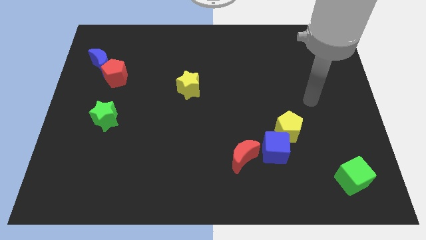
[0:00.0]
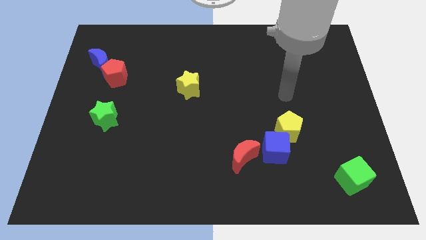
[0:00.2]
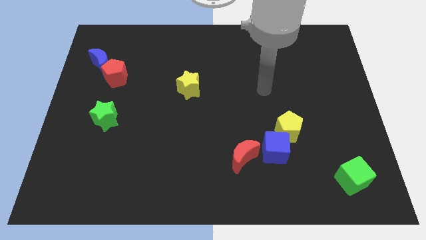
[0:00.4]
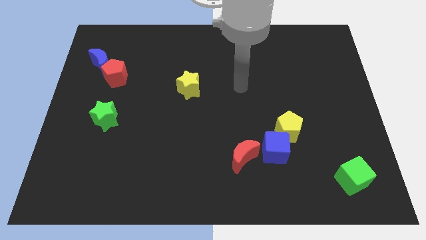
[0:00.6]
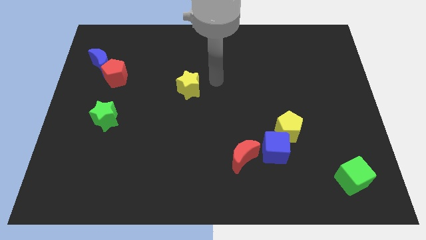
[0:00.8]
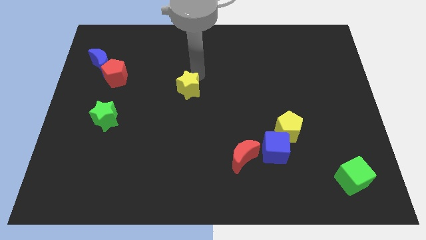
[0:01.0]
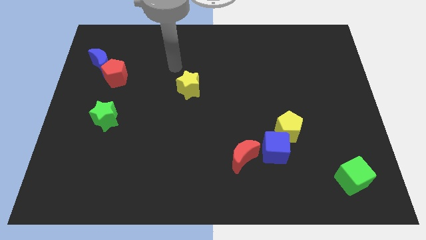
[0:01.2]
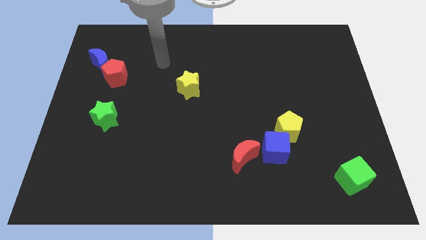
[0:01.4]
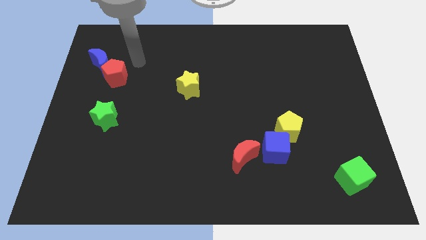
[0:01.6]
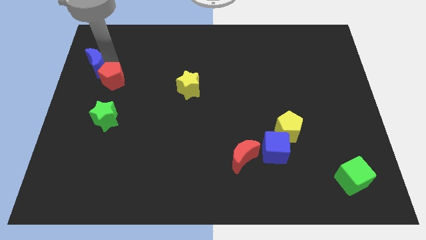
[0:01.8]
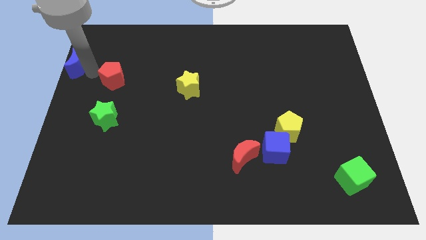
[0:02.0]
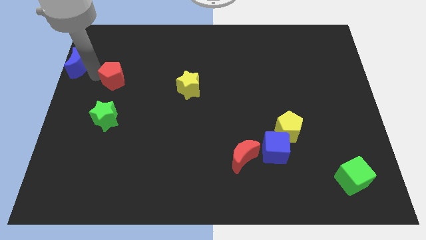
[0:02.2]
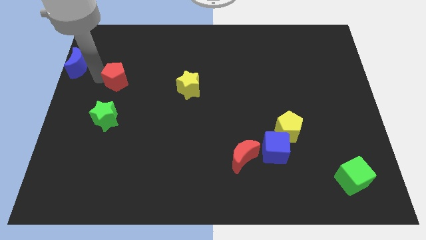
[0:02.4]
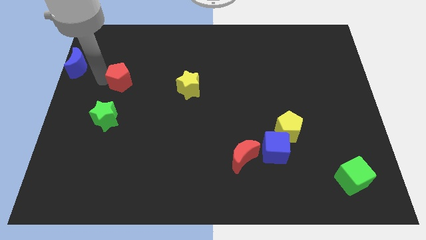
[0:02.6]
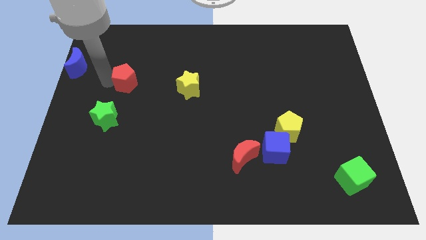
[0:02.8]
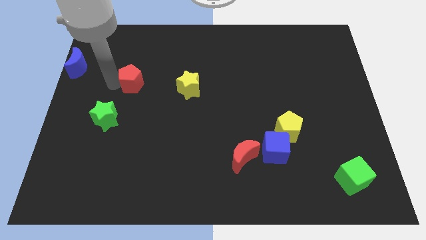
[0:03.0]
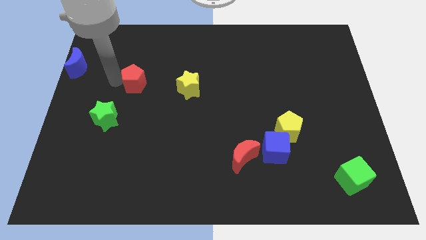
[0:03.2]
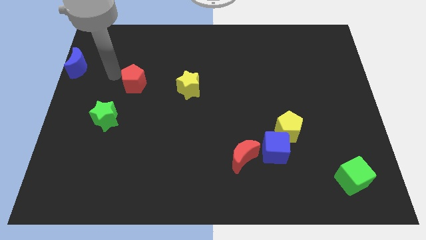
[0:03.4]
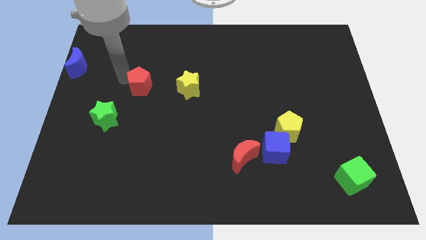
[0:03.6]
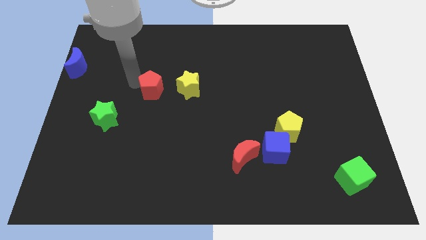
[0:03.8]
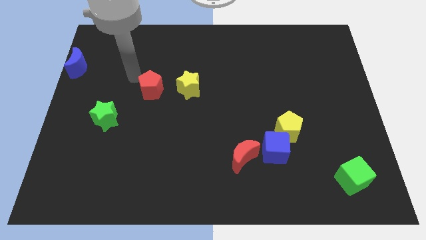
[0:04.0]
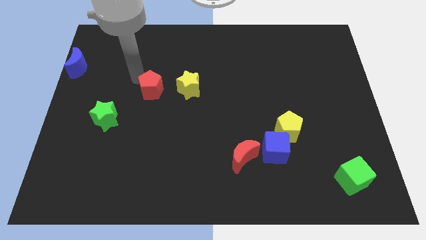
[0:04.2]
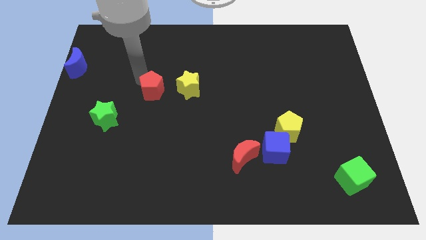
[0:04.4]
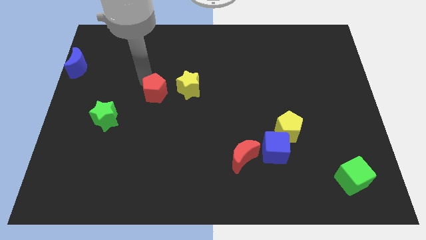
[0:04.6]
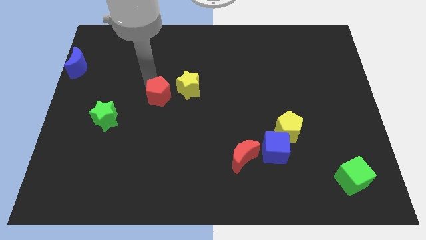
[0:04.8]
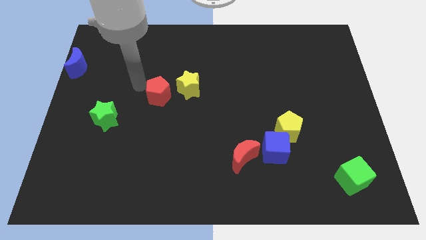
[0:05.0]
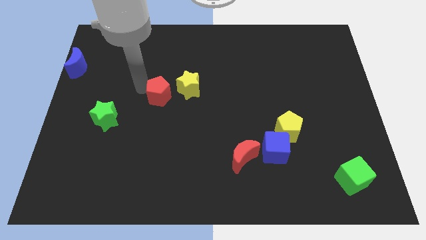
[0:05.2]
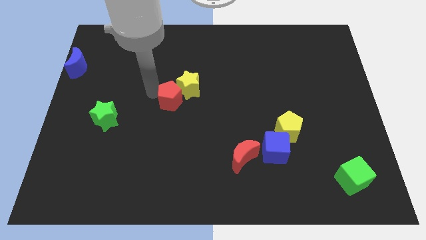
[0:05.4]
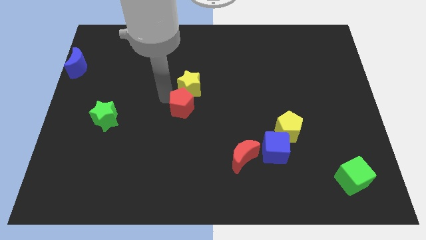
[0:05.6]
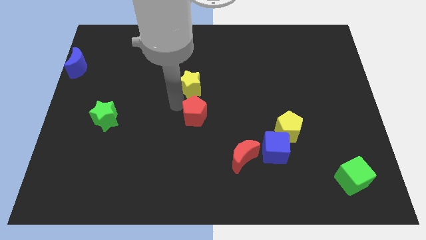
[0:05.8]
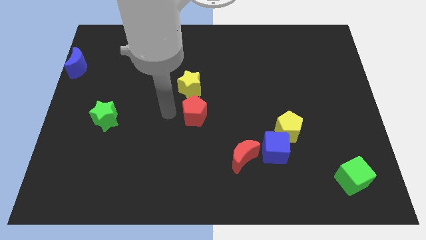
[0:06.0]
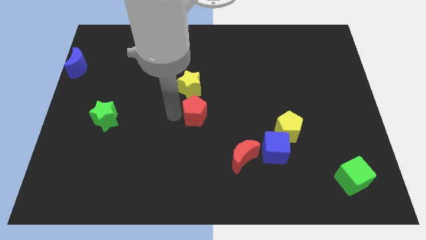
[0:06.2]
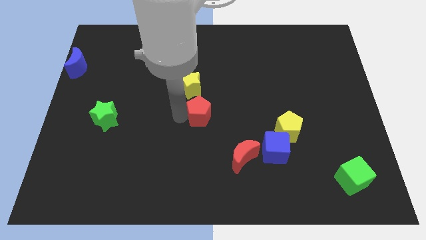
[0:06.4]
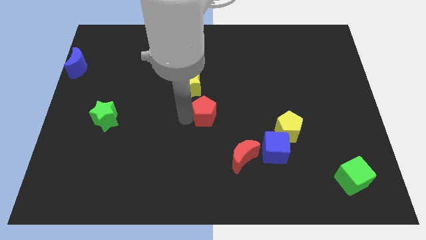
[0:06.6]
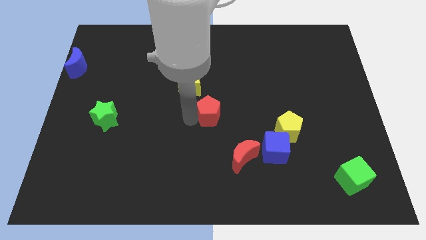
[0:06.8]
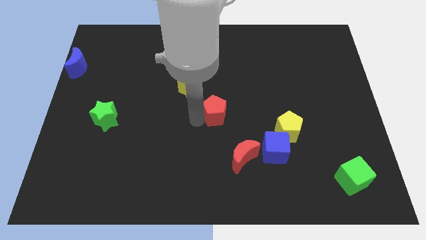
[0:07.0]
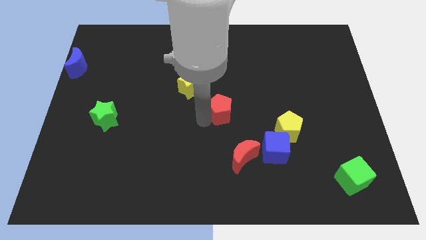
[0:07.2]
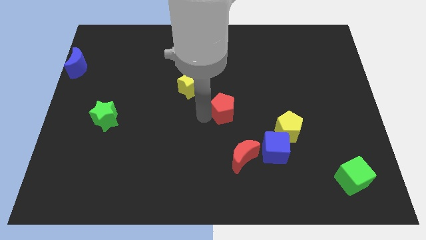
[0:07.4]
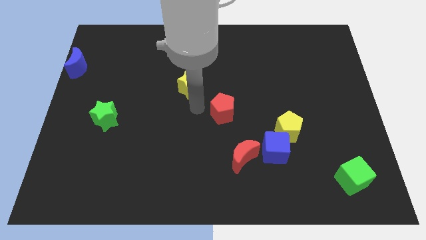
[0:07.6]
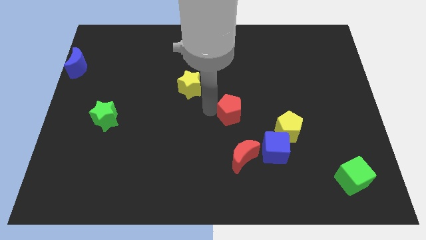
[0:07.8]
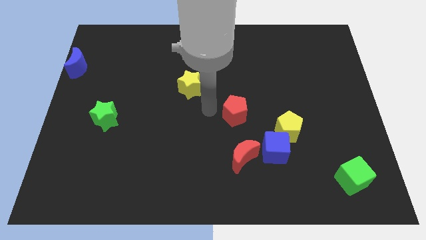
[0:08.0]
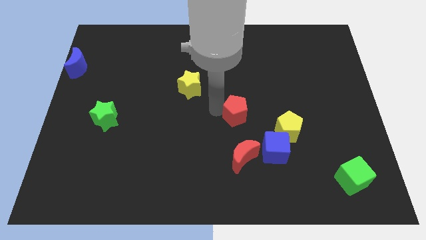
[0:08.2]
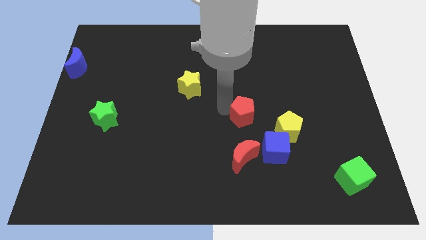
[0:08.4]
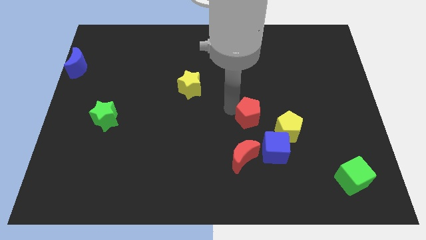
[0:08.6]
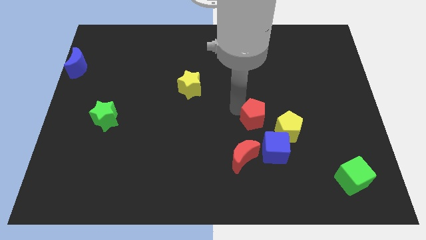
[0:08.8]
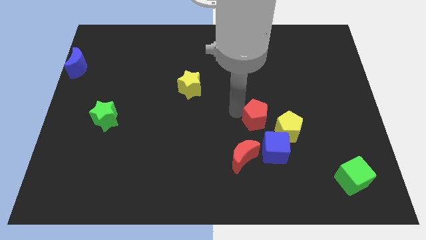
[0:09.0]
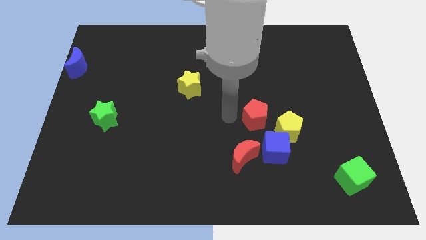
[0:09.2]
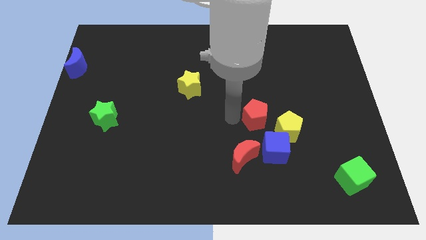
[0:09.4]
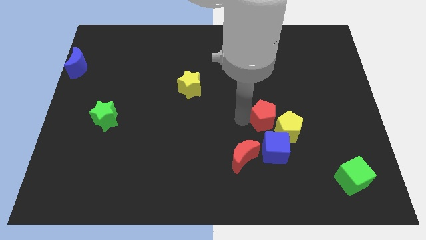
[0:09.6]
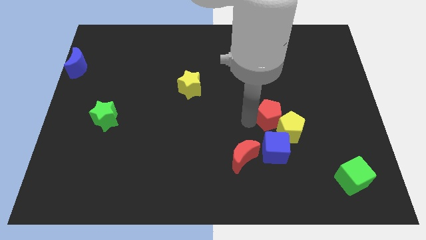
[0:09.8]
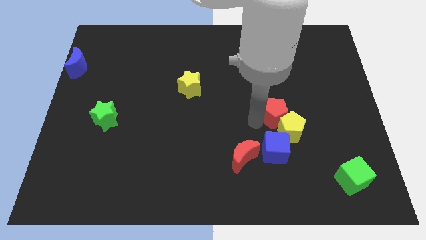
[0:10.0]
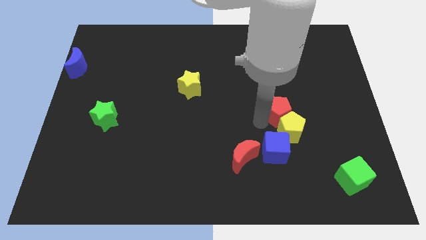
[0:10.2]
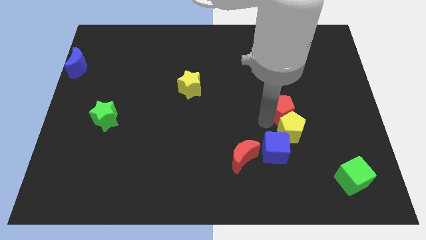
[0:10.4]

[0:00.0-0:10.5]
move the red pentagon diagonally up and to the right of the yellow pentagon

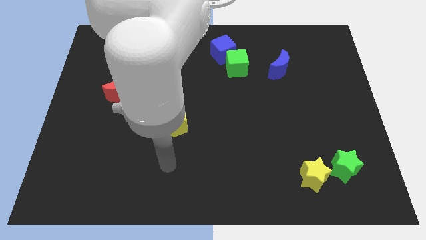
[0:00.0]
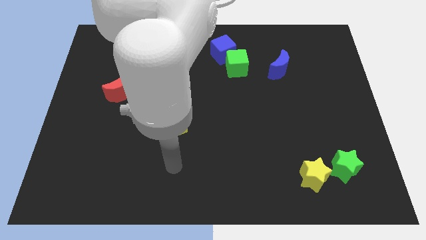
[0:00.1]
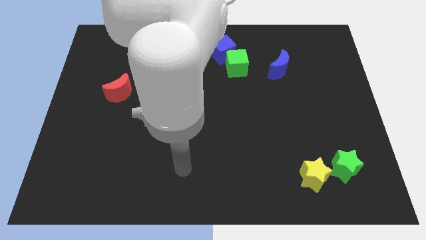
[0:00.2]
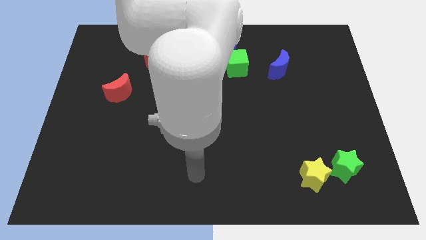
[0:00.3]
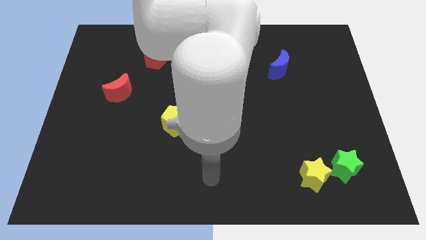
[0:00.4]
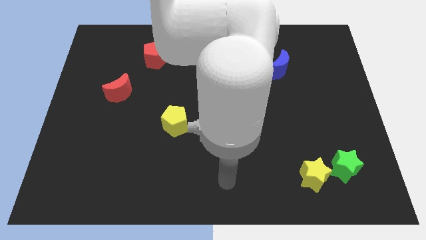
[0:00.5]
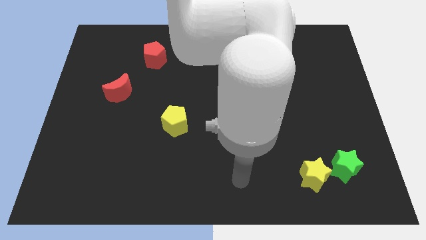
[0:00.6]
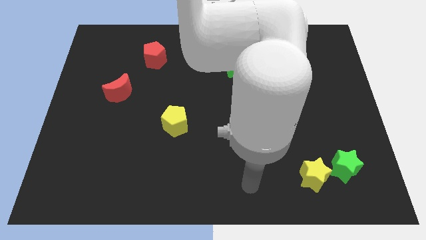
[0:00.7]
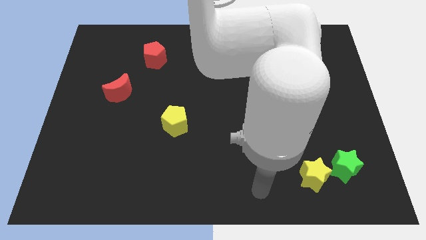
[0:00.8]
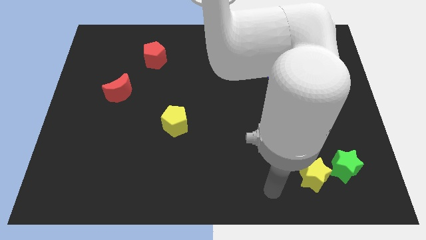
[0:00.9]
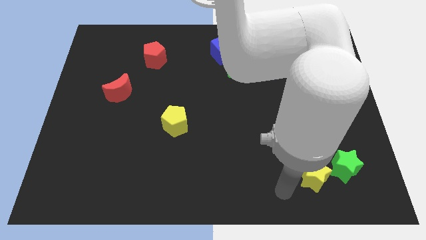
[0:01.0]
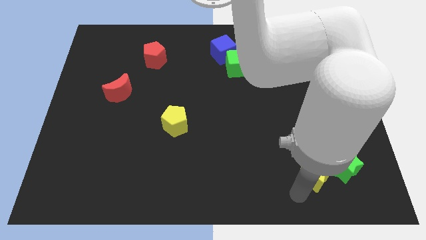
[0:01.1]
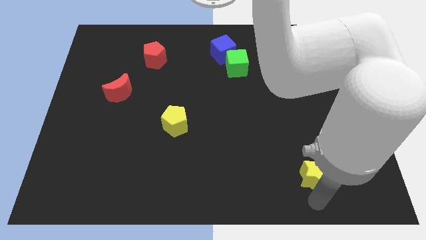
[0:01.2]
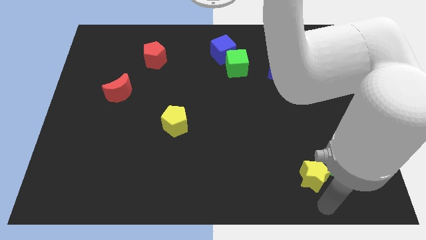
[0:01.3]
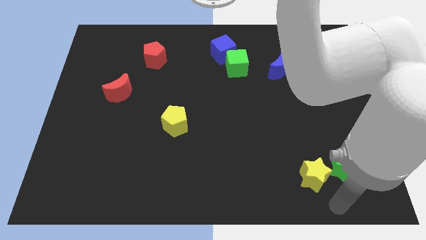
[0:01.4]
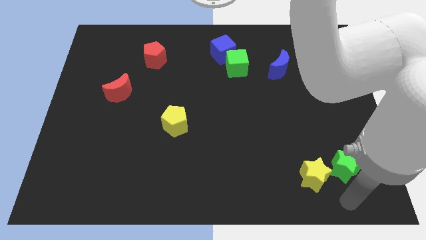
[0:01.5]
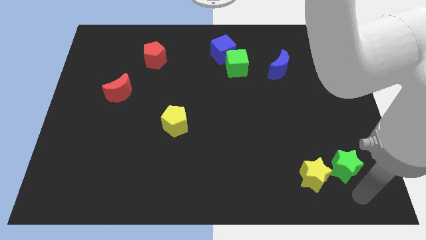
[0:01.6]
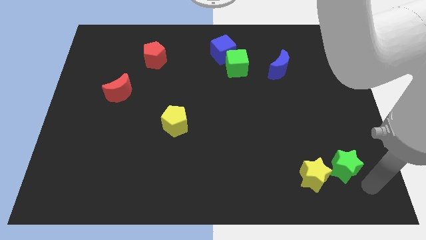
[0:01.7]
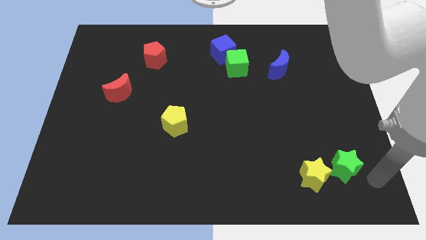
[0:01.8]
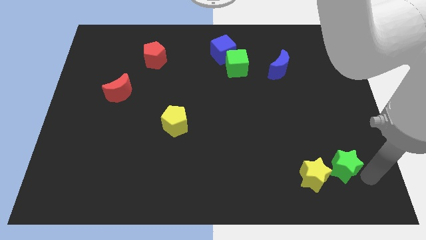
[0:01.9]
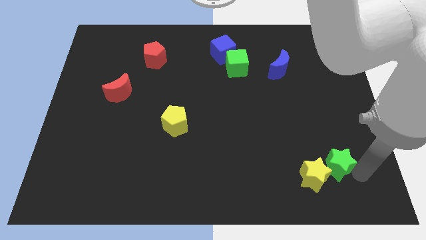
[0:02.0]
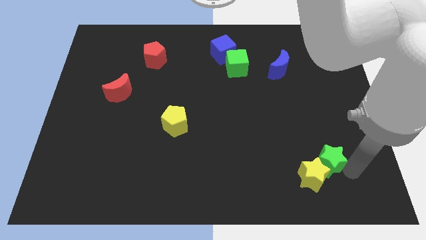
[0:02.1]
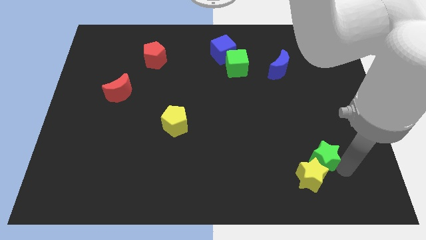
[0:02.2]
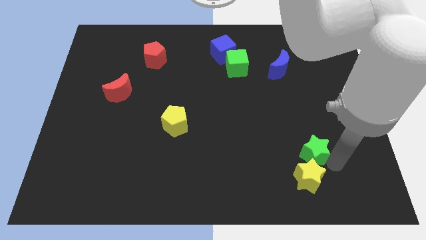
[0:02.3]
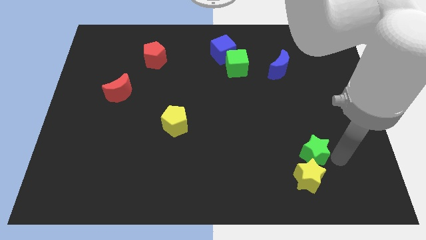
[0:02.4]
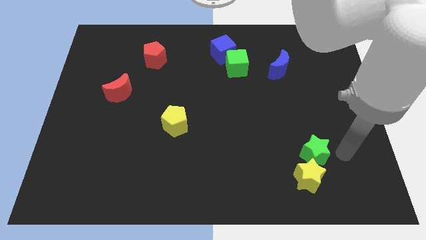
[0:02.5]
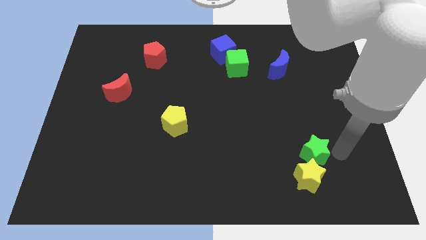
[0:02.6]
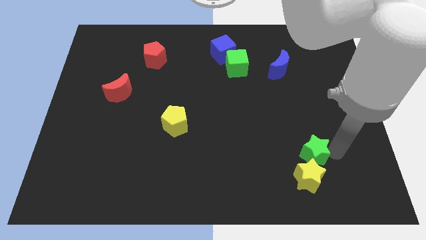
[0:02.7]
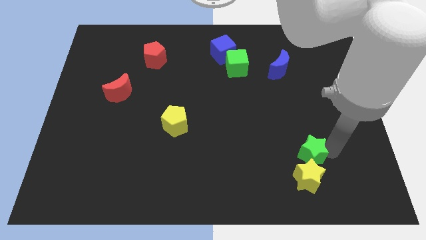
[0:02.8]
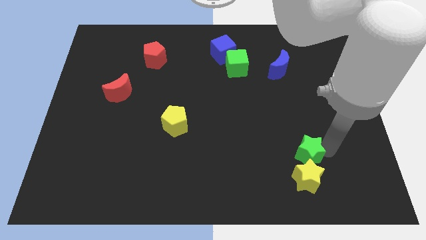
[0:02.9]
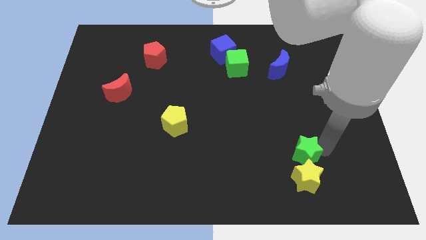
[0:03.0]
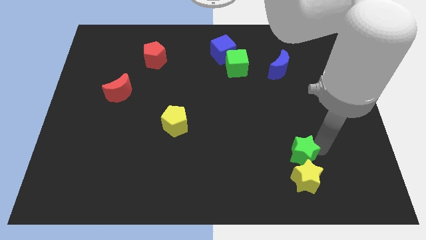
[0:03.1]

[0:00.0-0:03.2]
push the green star to the top left of the yellow star
